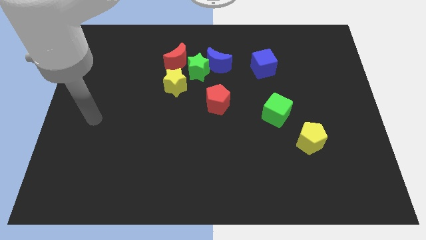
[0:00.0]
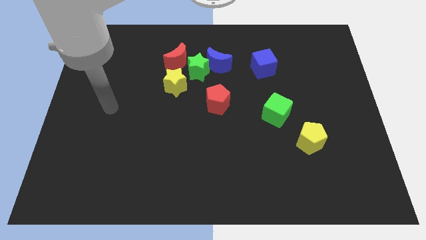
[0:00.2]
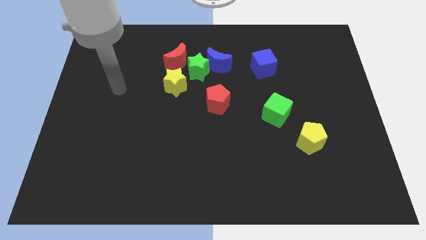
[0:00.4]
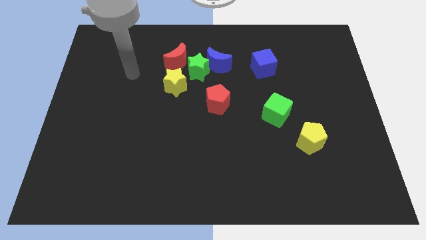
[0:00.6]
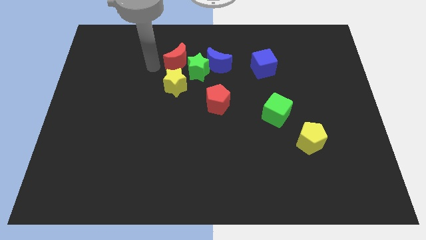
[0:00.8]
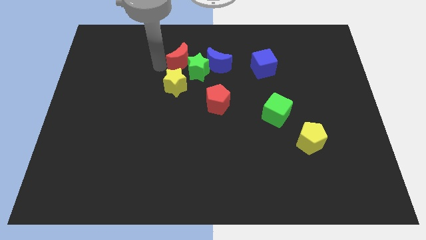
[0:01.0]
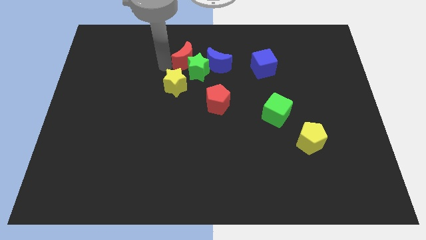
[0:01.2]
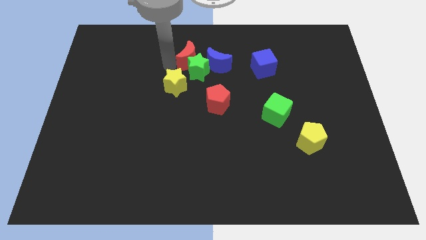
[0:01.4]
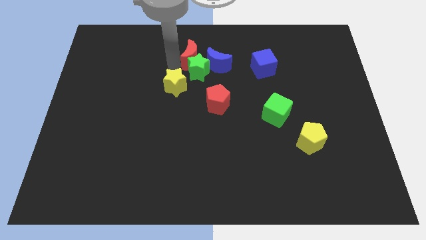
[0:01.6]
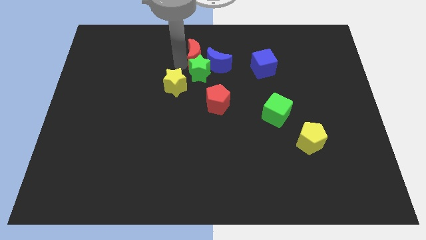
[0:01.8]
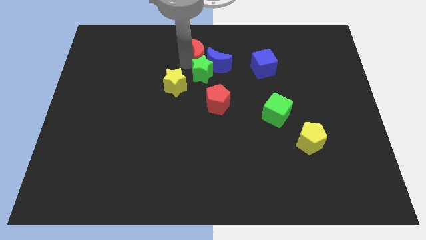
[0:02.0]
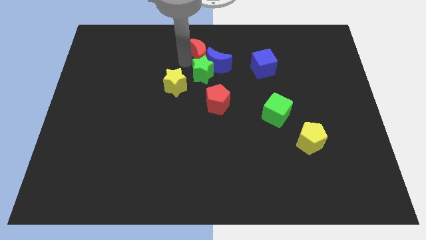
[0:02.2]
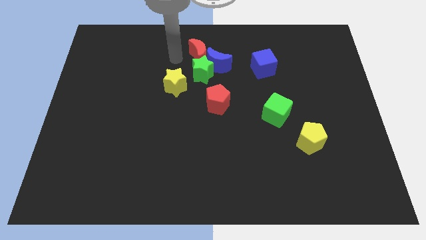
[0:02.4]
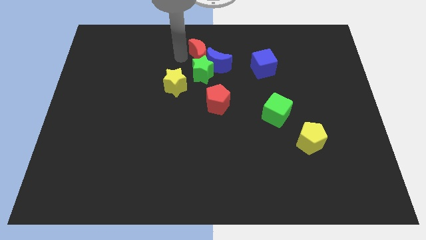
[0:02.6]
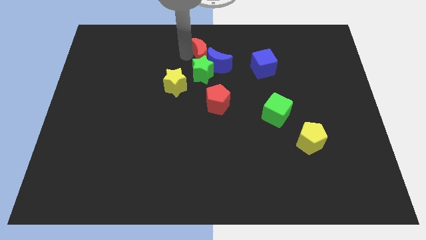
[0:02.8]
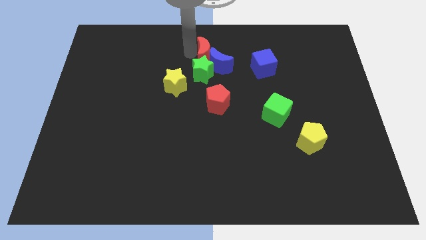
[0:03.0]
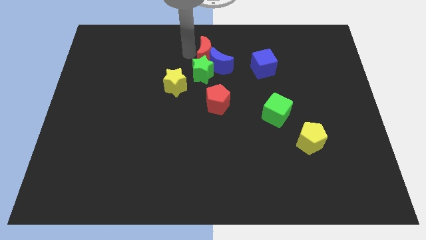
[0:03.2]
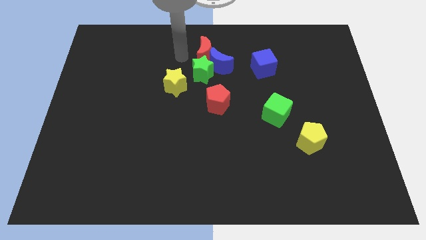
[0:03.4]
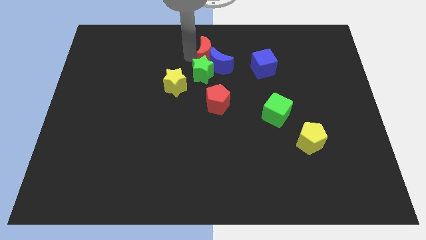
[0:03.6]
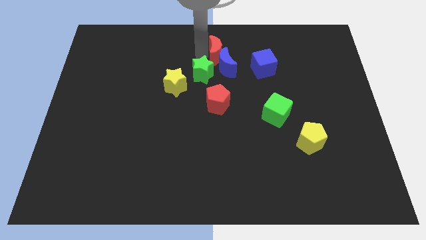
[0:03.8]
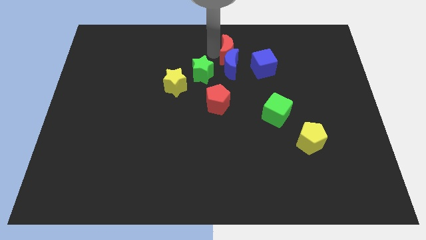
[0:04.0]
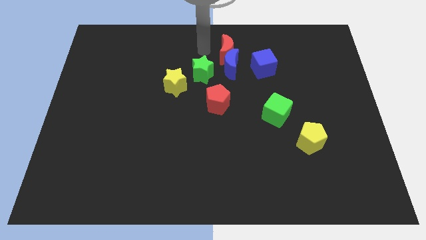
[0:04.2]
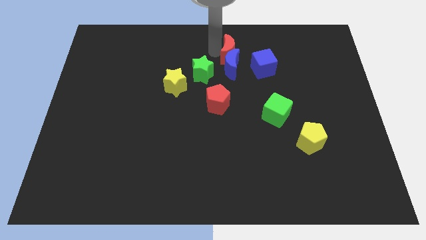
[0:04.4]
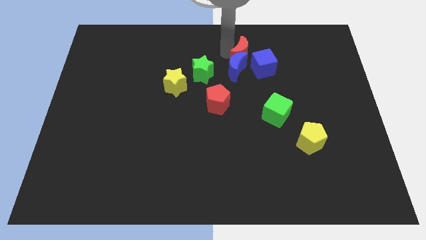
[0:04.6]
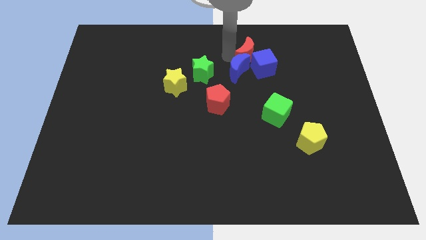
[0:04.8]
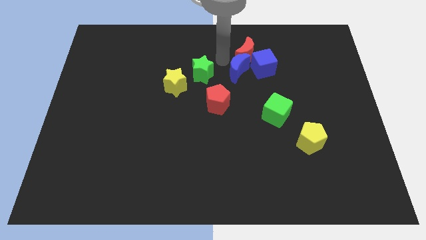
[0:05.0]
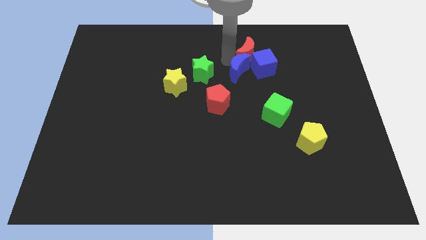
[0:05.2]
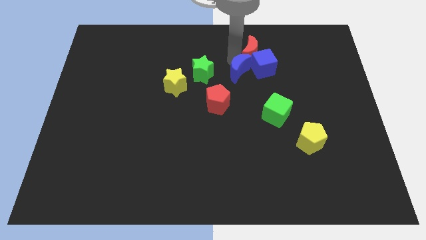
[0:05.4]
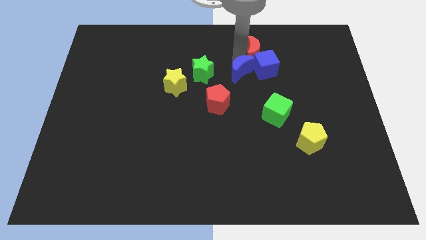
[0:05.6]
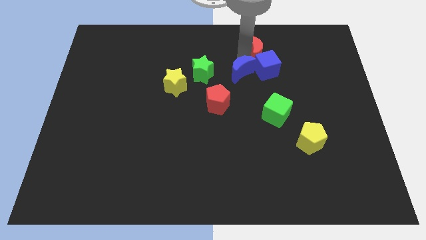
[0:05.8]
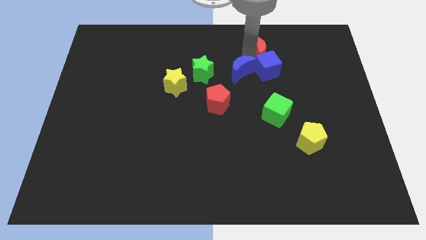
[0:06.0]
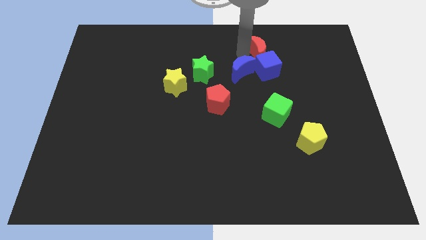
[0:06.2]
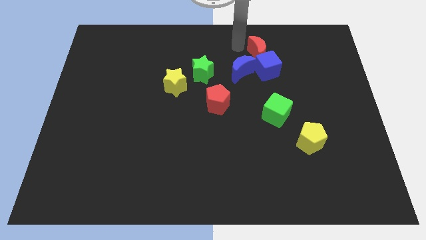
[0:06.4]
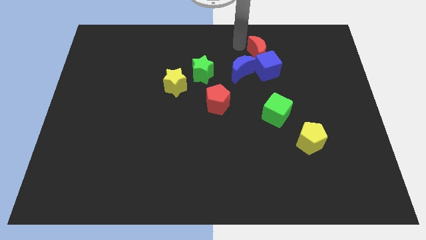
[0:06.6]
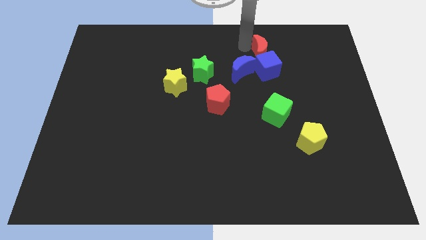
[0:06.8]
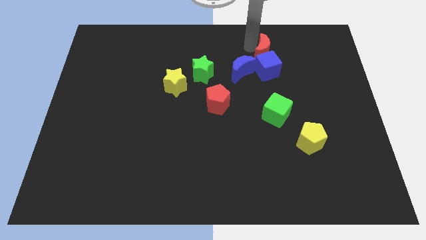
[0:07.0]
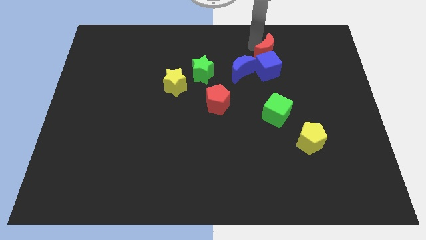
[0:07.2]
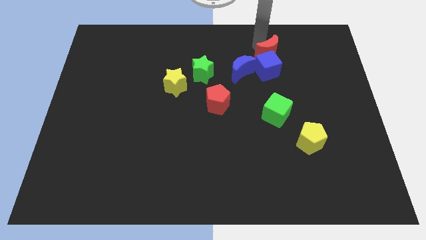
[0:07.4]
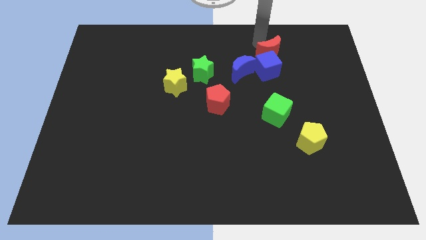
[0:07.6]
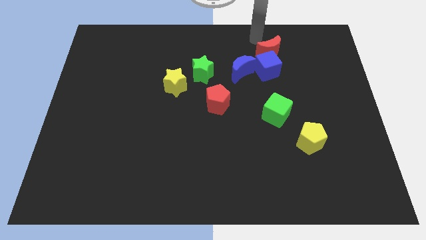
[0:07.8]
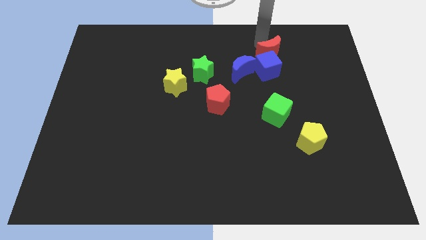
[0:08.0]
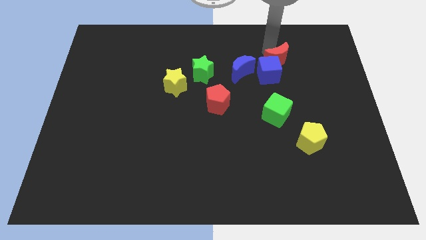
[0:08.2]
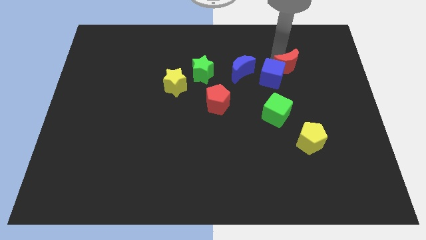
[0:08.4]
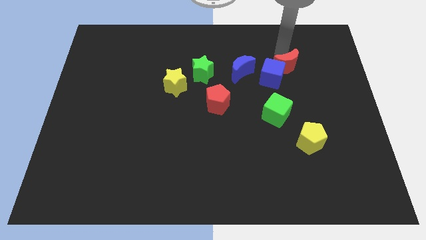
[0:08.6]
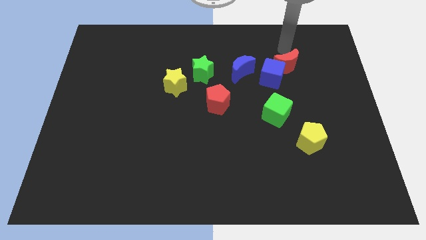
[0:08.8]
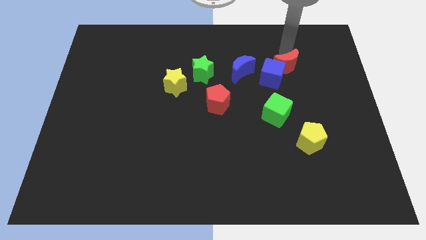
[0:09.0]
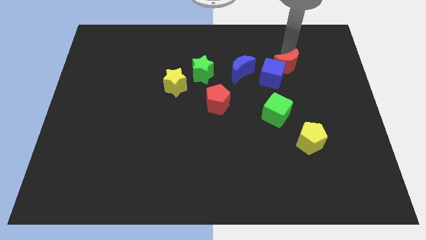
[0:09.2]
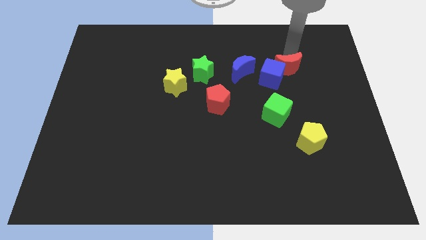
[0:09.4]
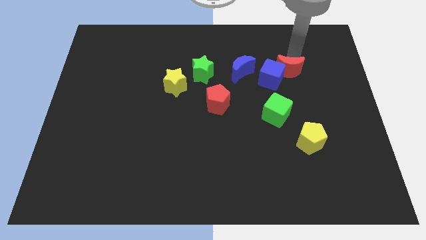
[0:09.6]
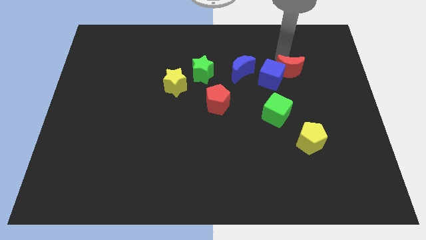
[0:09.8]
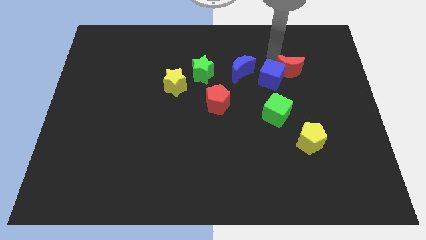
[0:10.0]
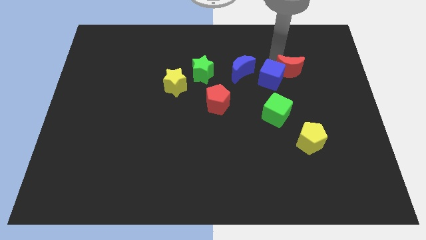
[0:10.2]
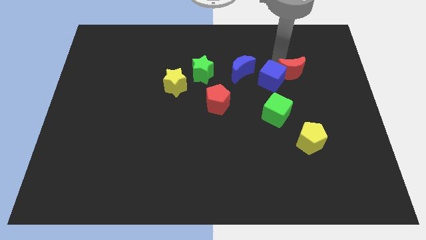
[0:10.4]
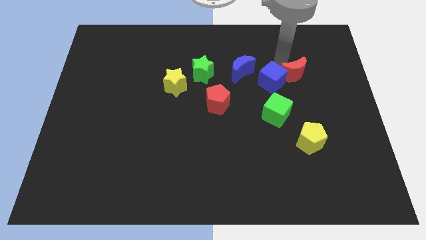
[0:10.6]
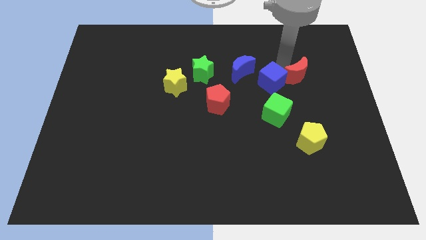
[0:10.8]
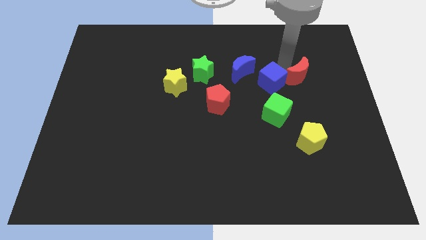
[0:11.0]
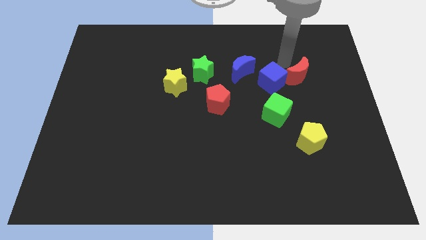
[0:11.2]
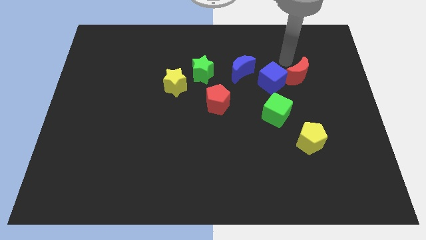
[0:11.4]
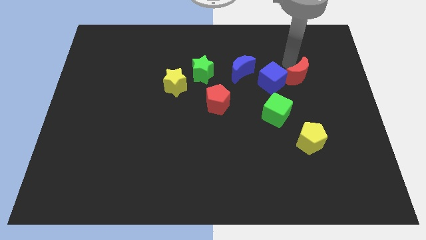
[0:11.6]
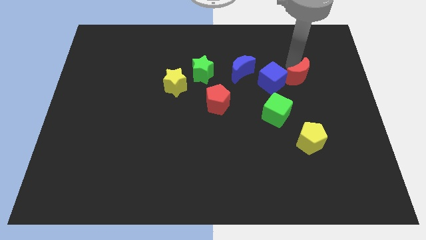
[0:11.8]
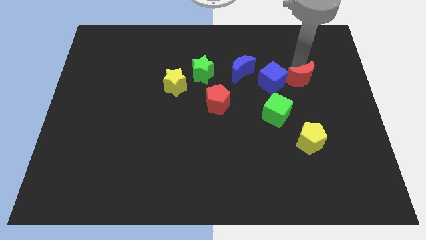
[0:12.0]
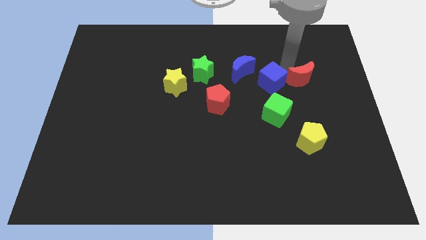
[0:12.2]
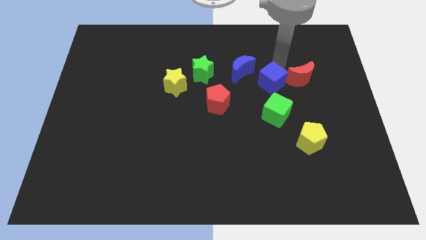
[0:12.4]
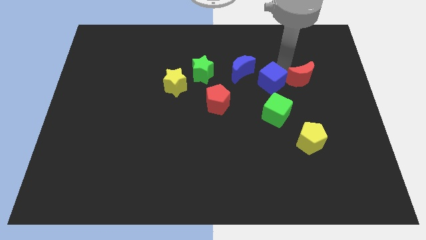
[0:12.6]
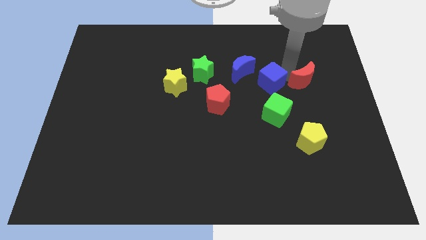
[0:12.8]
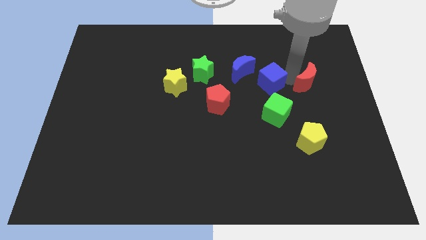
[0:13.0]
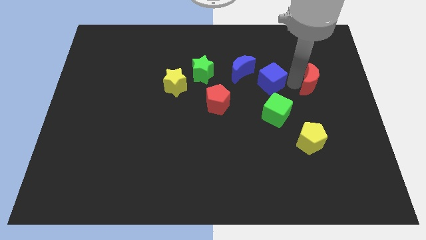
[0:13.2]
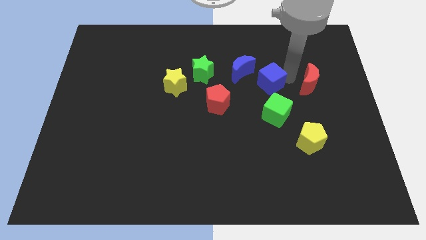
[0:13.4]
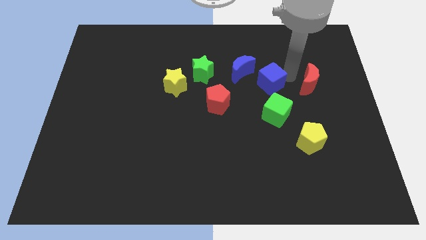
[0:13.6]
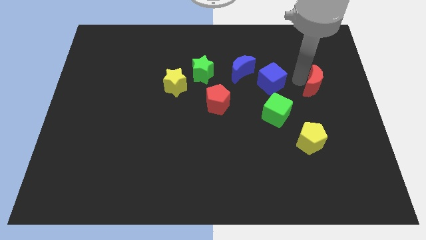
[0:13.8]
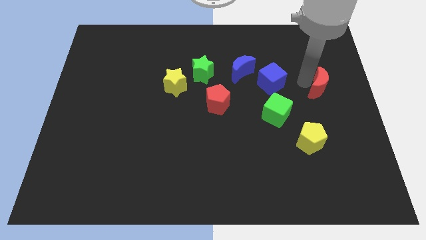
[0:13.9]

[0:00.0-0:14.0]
put the red moon to the right side
